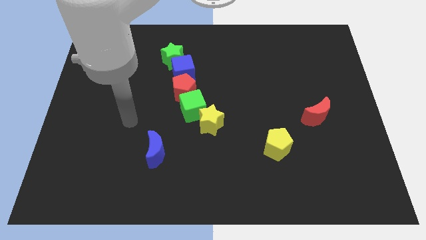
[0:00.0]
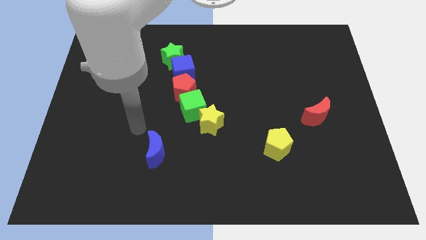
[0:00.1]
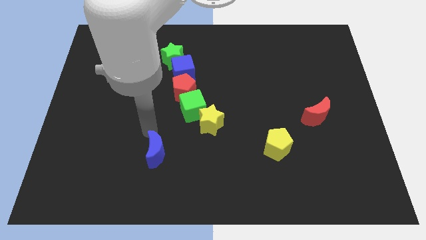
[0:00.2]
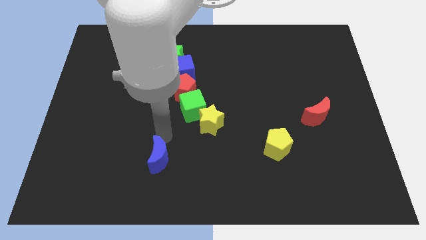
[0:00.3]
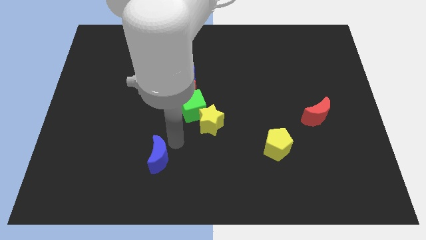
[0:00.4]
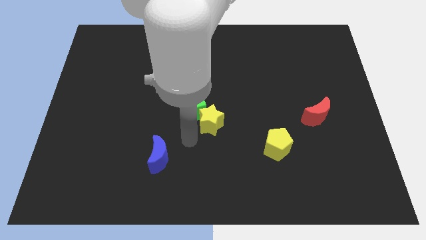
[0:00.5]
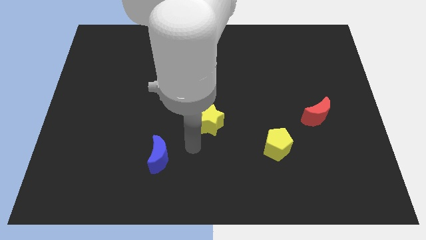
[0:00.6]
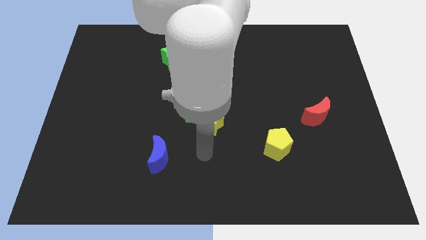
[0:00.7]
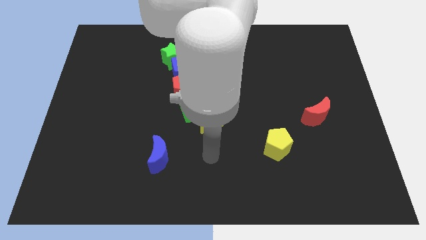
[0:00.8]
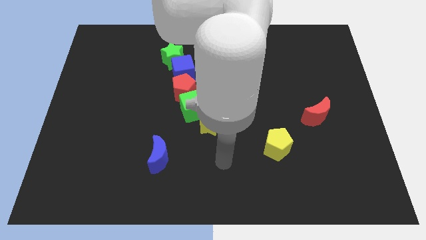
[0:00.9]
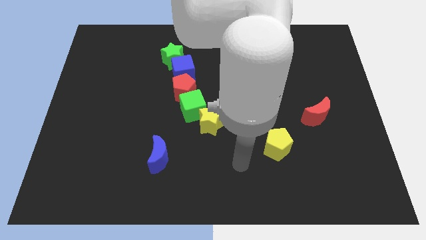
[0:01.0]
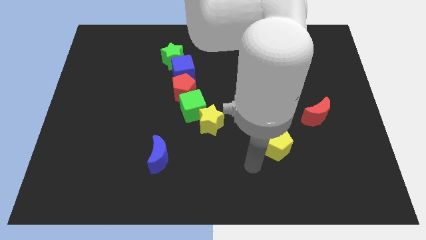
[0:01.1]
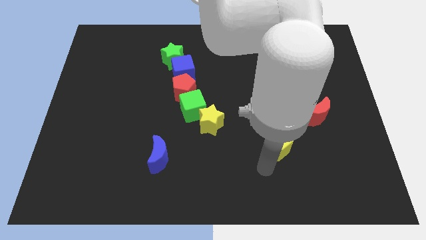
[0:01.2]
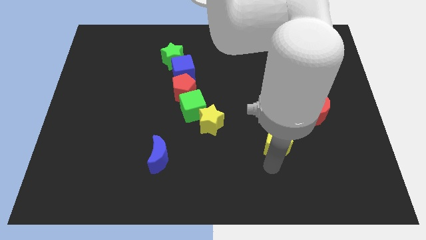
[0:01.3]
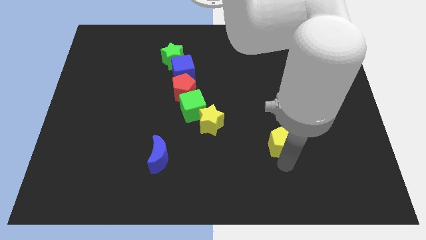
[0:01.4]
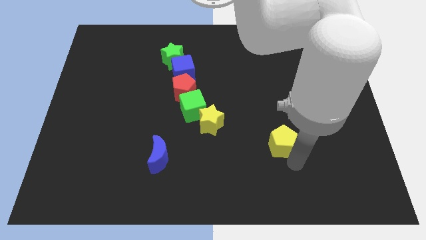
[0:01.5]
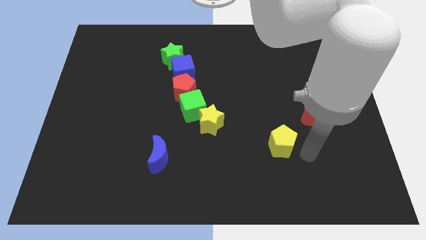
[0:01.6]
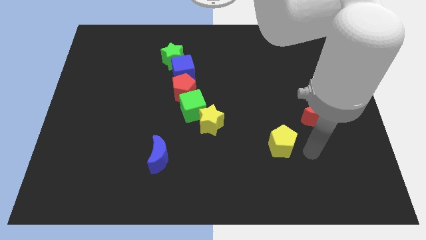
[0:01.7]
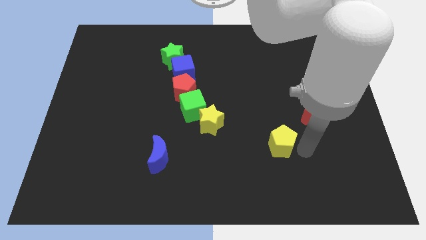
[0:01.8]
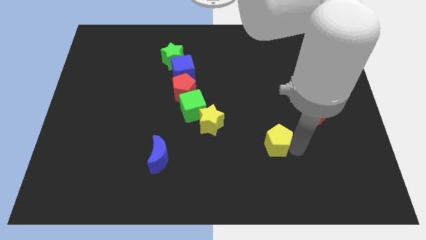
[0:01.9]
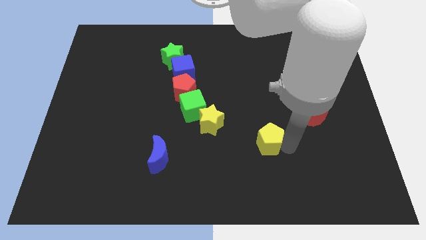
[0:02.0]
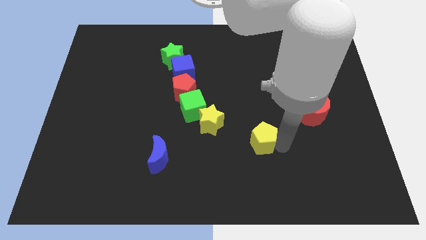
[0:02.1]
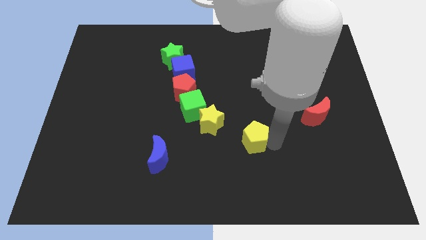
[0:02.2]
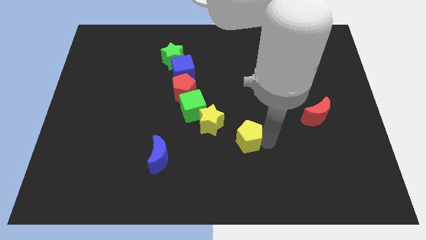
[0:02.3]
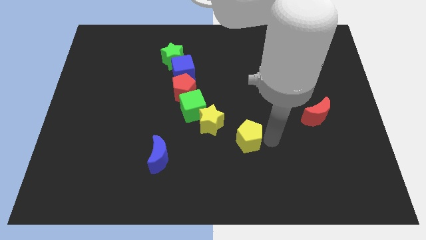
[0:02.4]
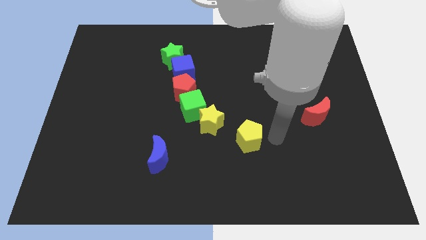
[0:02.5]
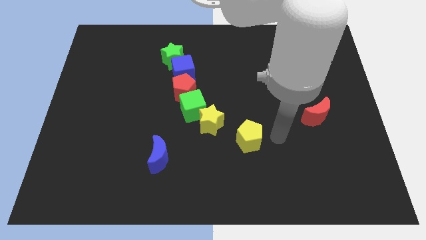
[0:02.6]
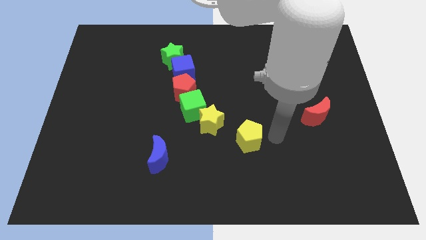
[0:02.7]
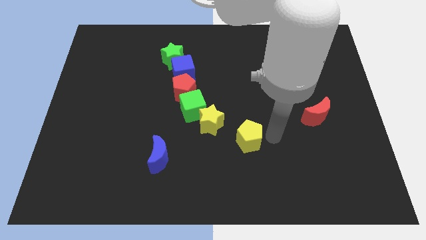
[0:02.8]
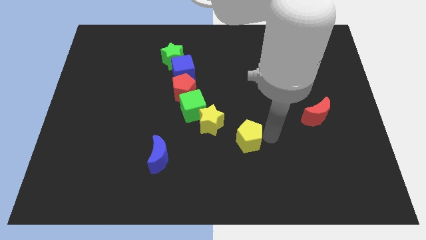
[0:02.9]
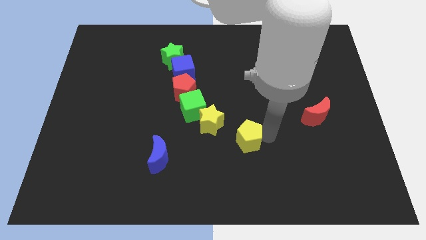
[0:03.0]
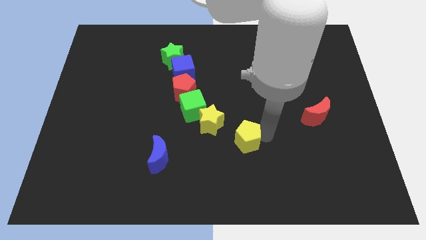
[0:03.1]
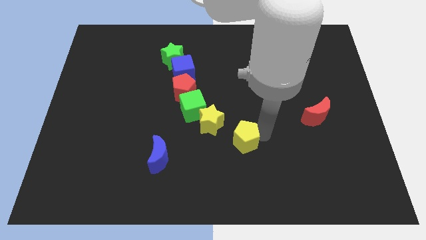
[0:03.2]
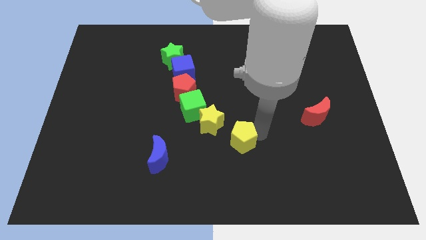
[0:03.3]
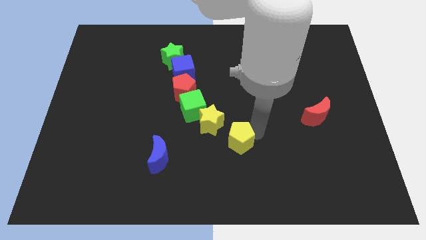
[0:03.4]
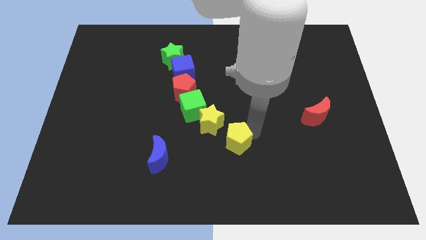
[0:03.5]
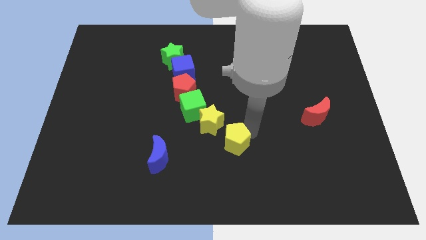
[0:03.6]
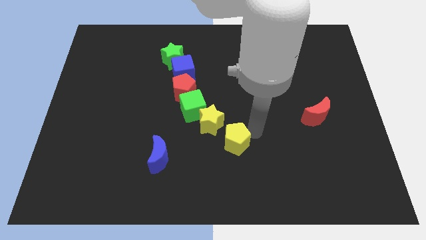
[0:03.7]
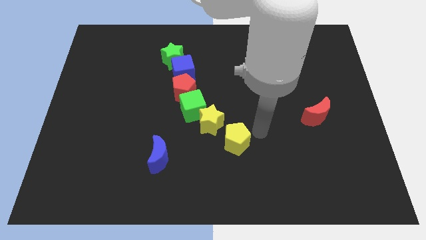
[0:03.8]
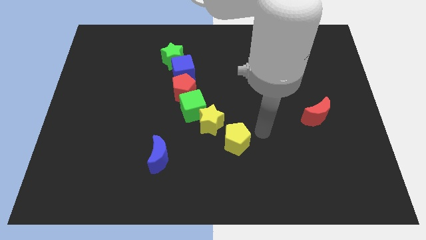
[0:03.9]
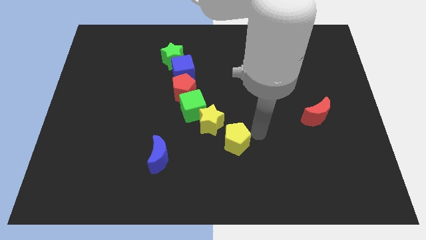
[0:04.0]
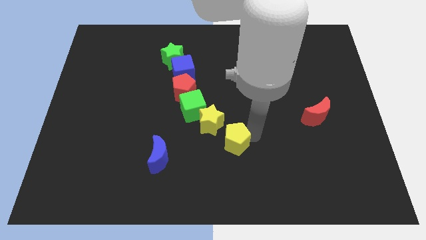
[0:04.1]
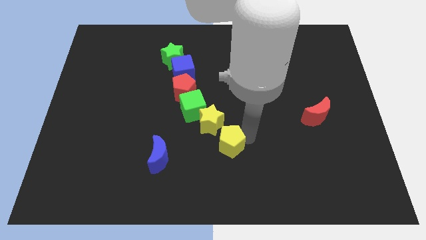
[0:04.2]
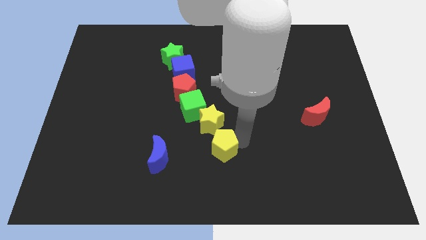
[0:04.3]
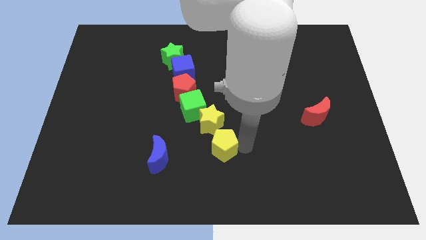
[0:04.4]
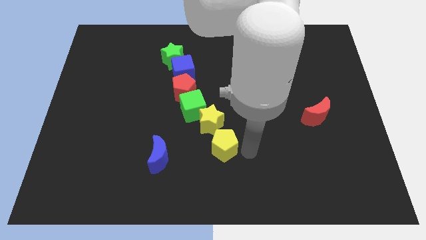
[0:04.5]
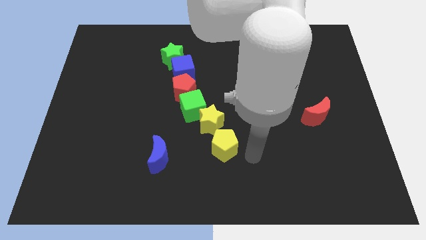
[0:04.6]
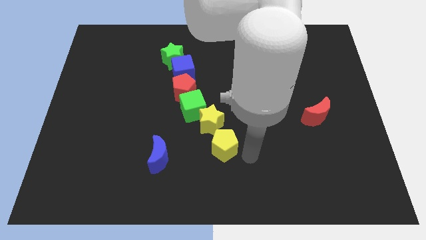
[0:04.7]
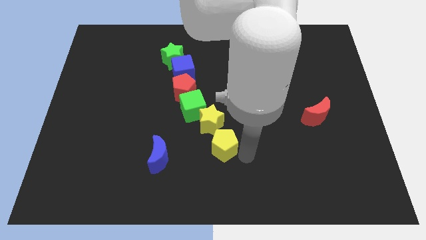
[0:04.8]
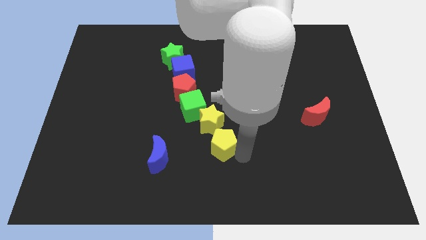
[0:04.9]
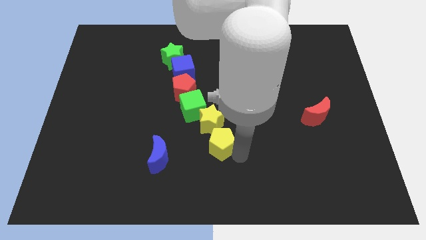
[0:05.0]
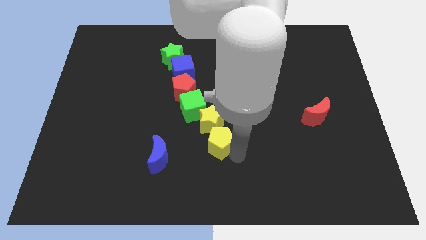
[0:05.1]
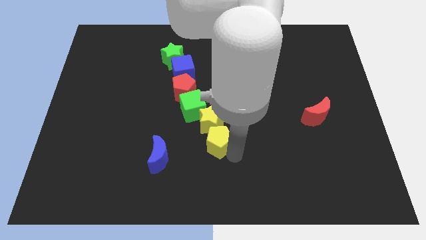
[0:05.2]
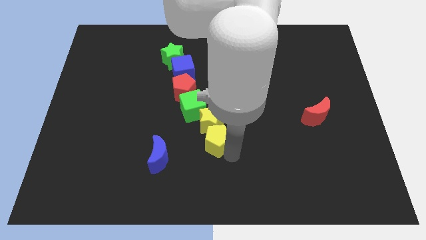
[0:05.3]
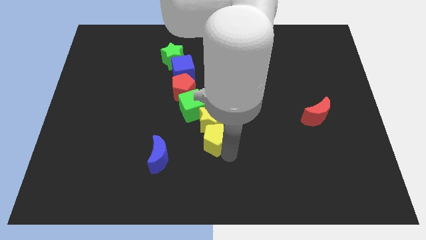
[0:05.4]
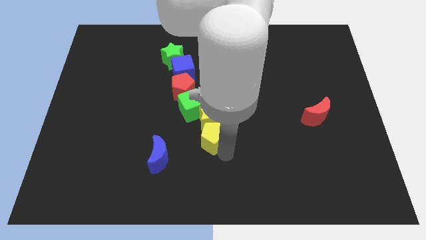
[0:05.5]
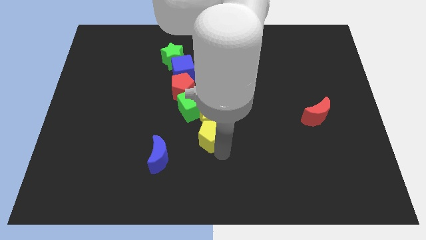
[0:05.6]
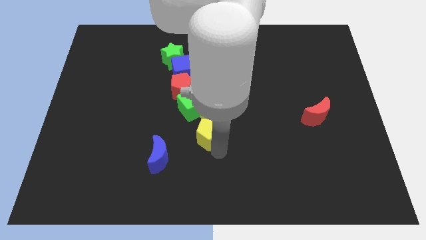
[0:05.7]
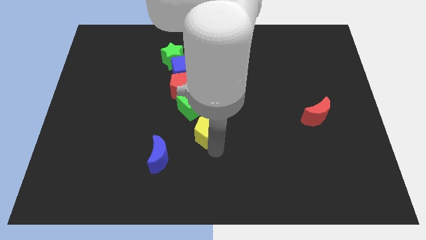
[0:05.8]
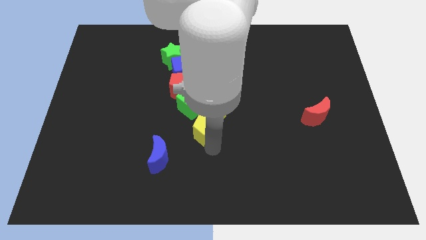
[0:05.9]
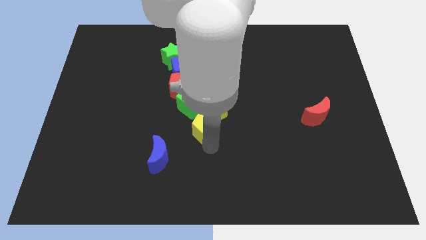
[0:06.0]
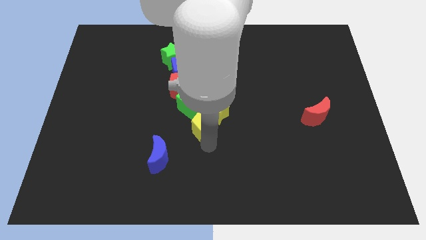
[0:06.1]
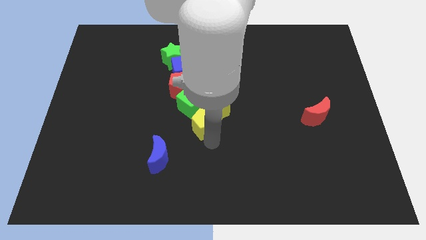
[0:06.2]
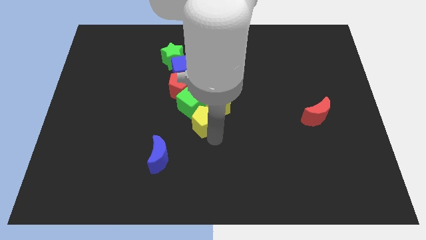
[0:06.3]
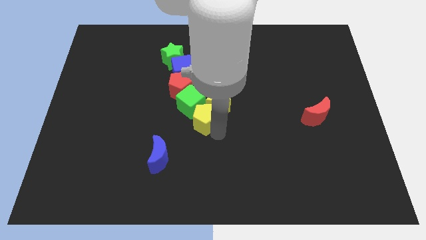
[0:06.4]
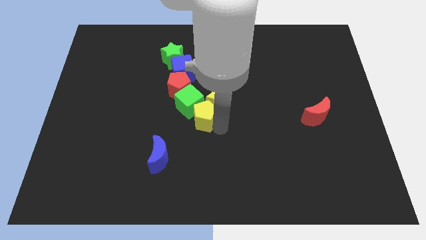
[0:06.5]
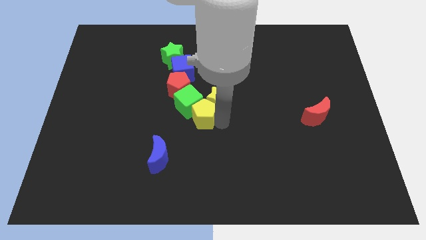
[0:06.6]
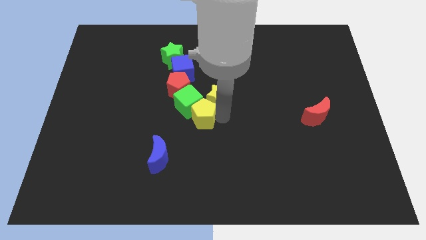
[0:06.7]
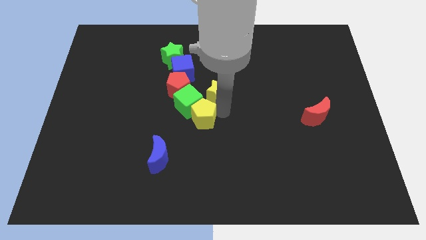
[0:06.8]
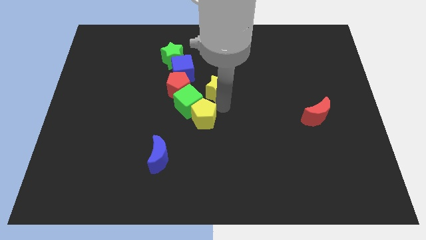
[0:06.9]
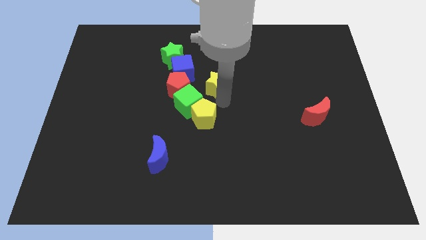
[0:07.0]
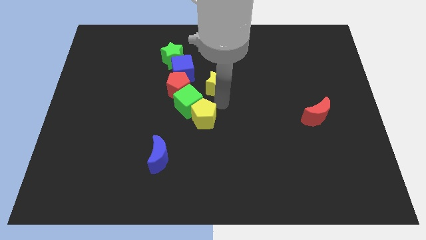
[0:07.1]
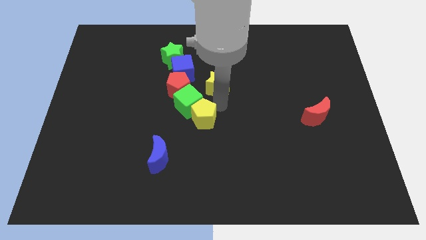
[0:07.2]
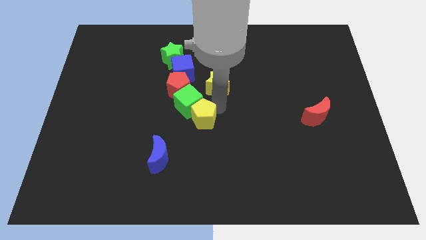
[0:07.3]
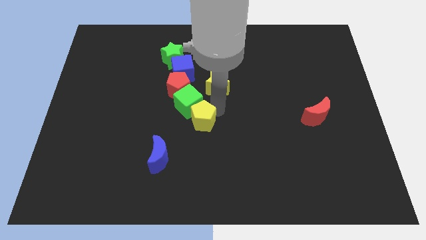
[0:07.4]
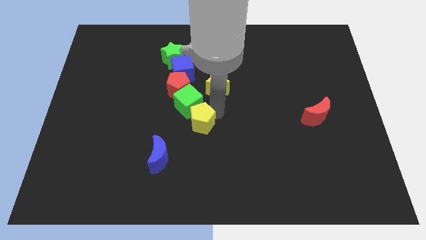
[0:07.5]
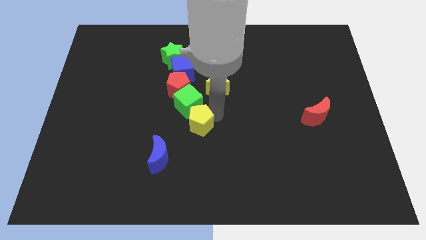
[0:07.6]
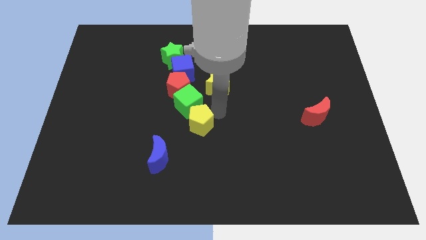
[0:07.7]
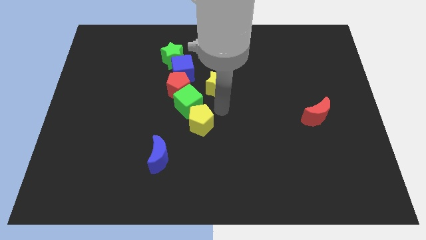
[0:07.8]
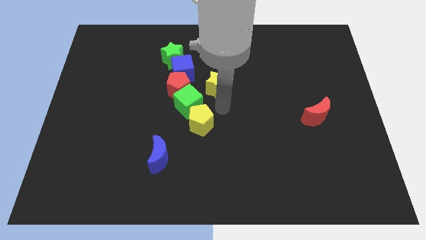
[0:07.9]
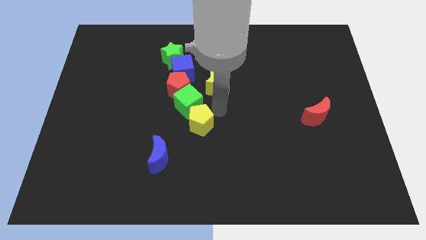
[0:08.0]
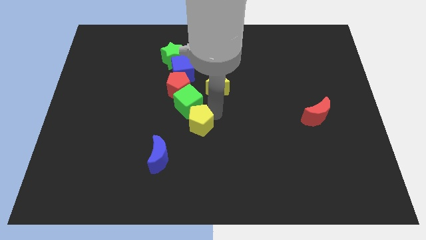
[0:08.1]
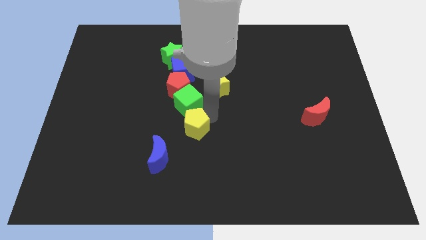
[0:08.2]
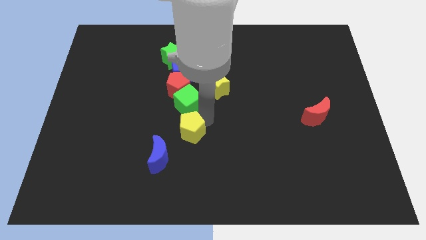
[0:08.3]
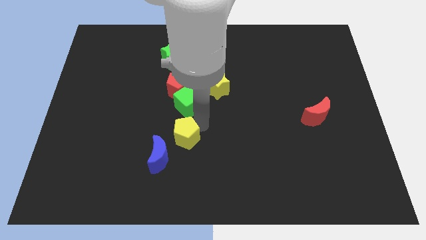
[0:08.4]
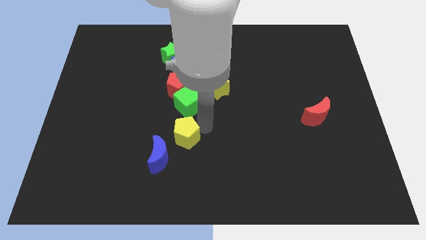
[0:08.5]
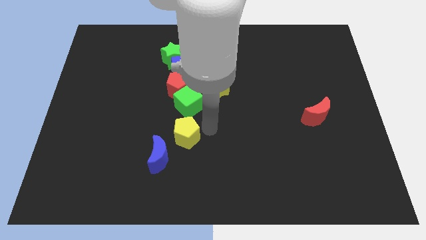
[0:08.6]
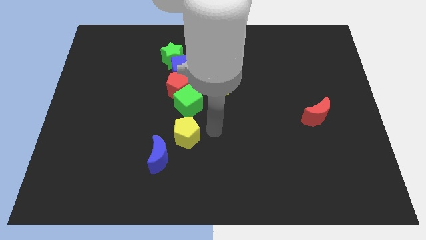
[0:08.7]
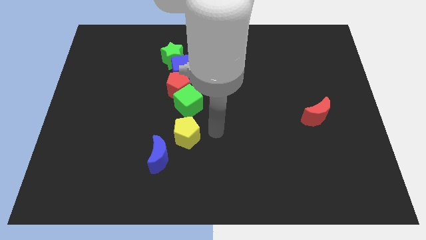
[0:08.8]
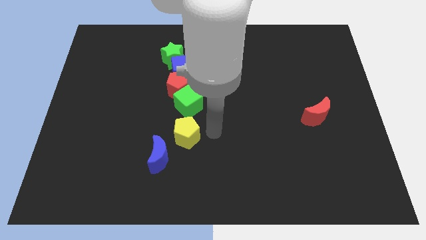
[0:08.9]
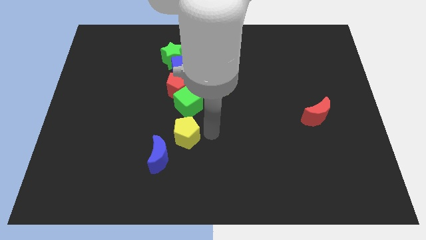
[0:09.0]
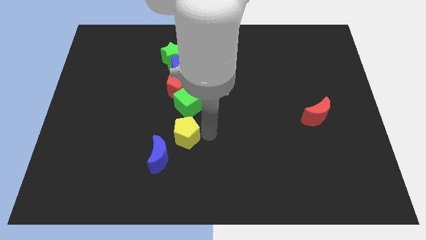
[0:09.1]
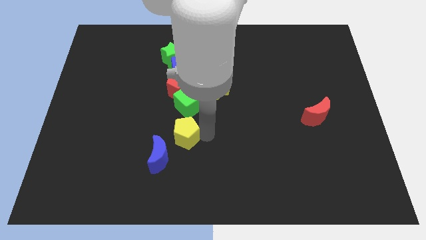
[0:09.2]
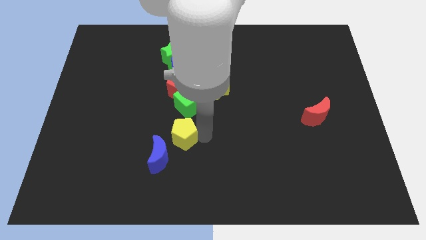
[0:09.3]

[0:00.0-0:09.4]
slide the yellow pentagon left
